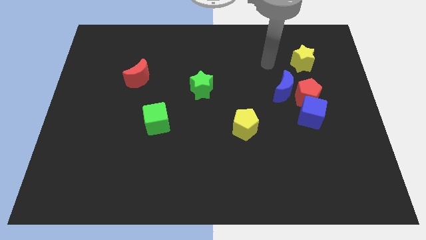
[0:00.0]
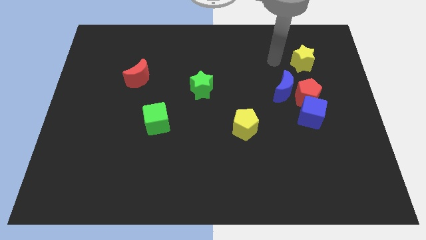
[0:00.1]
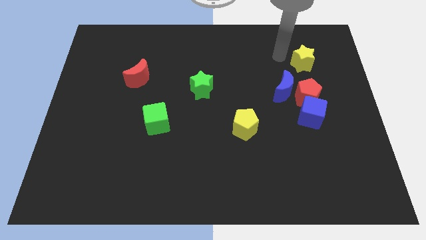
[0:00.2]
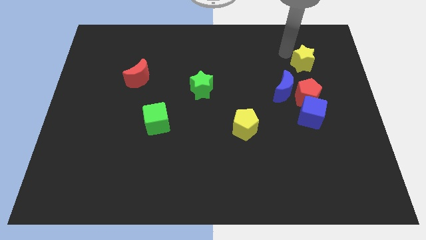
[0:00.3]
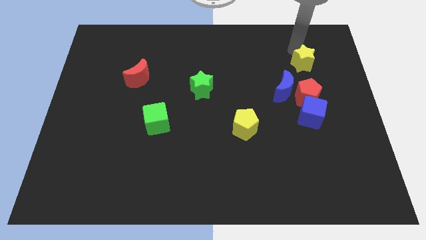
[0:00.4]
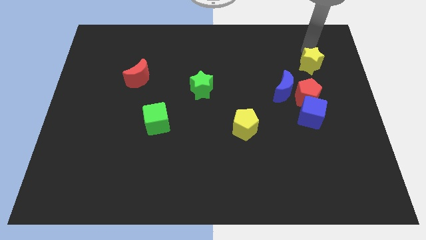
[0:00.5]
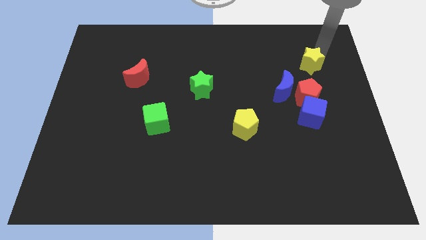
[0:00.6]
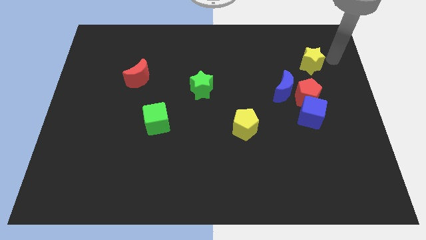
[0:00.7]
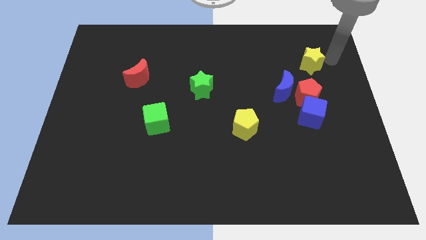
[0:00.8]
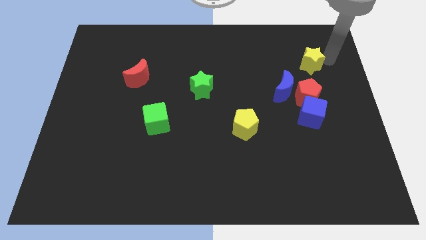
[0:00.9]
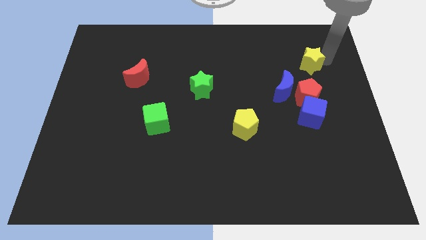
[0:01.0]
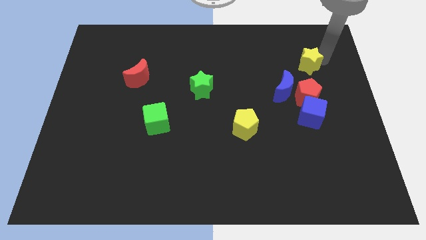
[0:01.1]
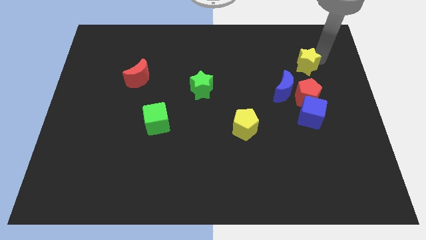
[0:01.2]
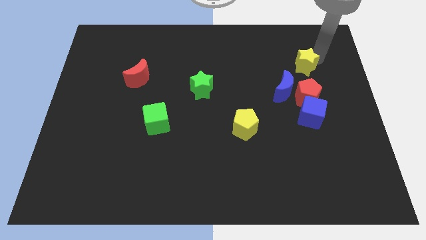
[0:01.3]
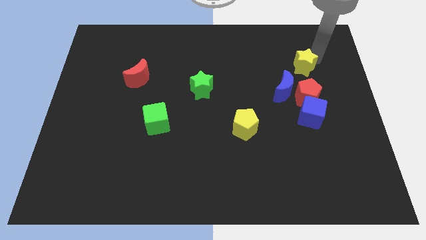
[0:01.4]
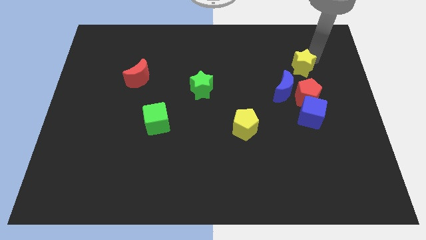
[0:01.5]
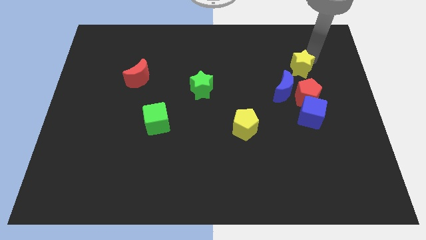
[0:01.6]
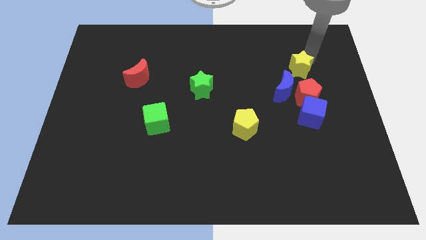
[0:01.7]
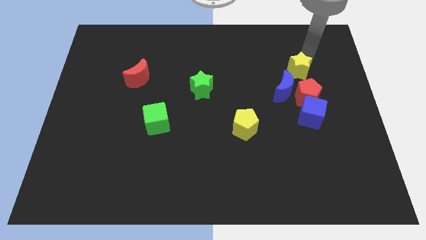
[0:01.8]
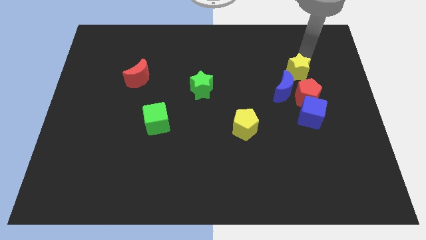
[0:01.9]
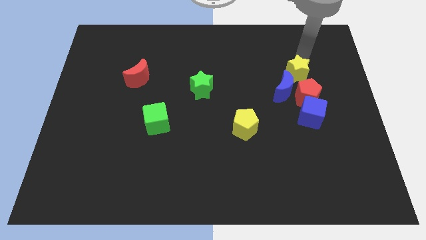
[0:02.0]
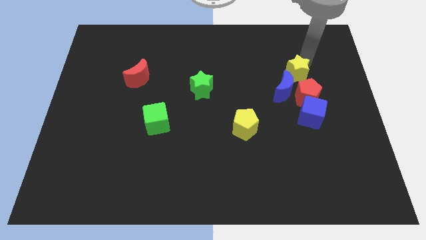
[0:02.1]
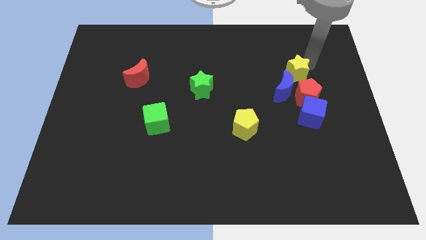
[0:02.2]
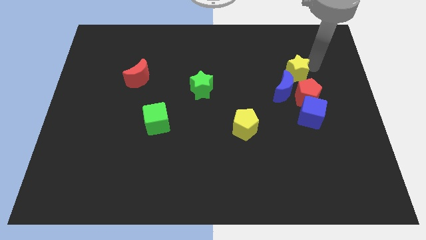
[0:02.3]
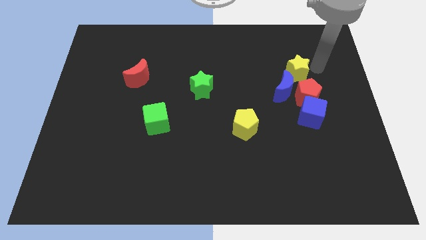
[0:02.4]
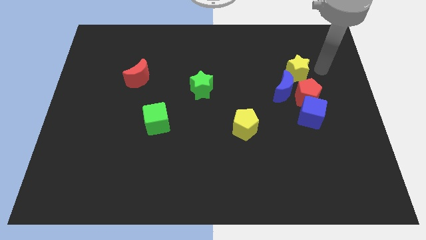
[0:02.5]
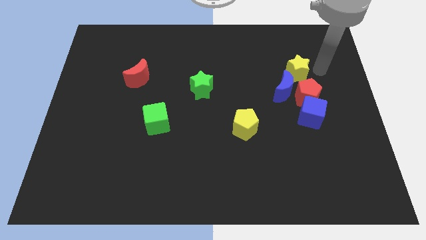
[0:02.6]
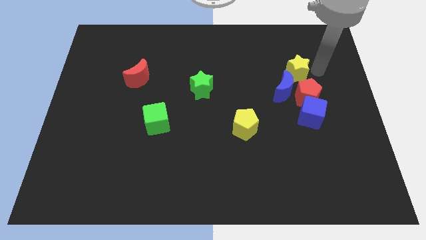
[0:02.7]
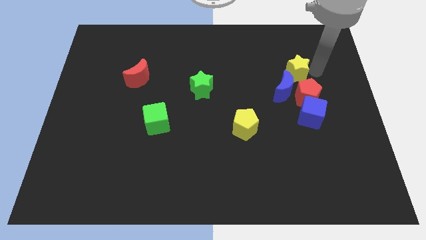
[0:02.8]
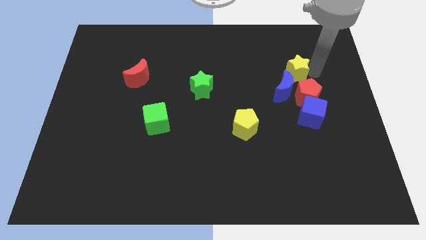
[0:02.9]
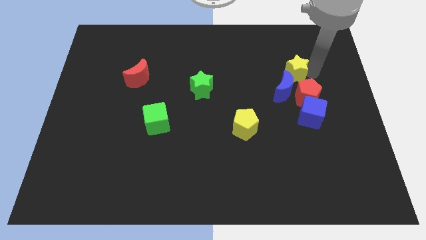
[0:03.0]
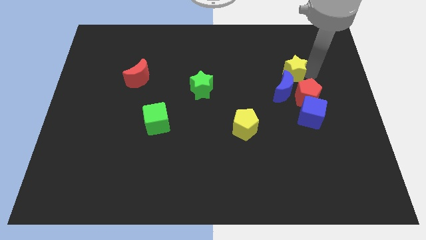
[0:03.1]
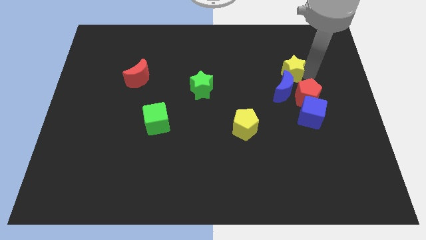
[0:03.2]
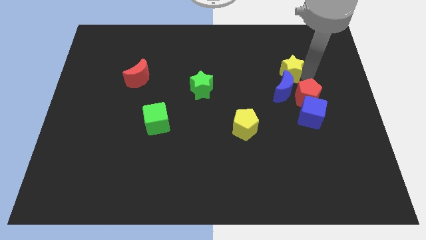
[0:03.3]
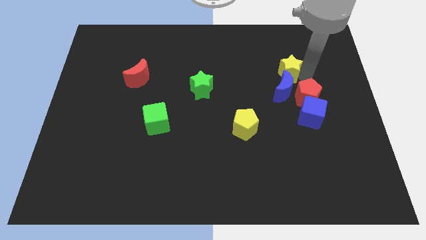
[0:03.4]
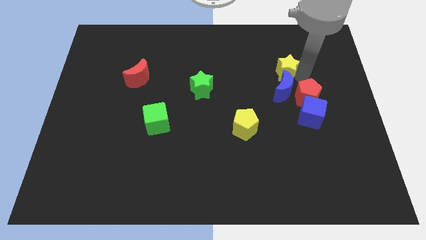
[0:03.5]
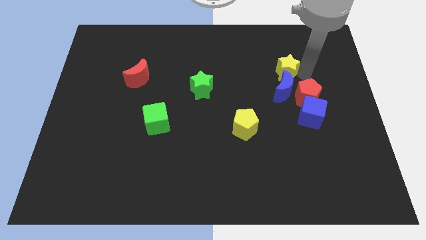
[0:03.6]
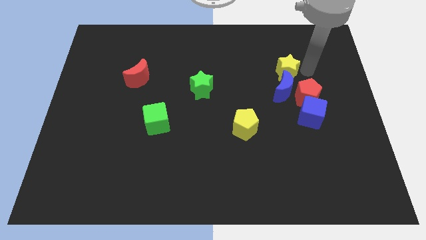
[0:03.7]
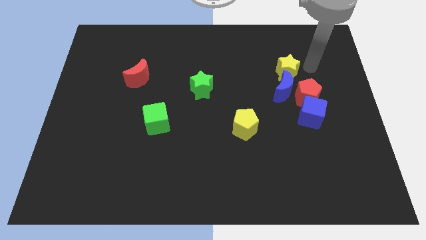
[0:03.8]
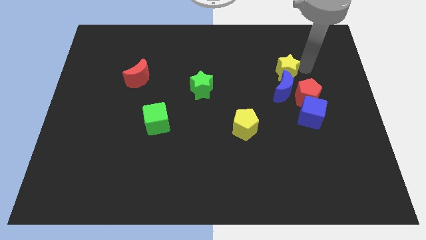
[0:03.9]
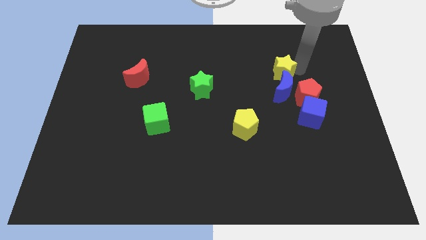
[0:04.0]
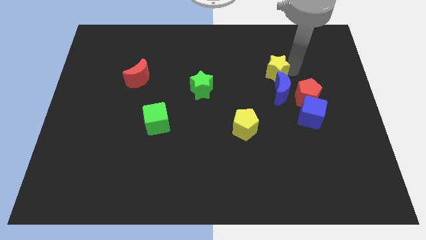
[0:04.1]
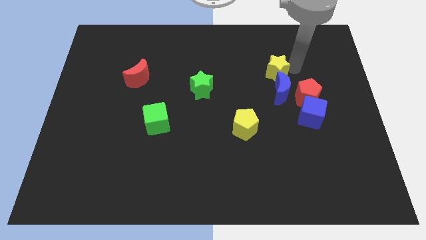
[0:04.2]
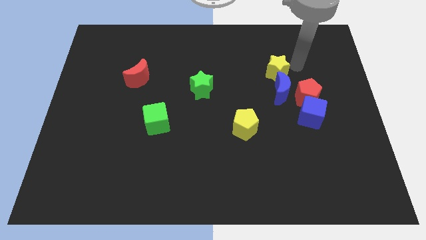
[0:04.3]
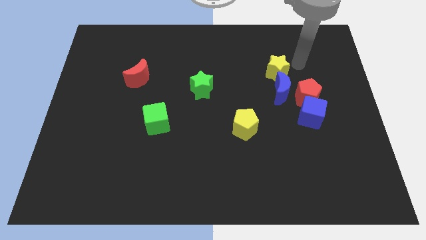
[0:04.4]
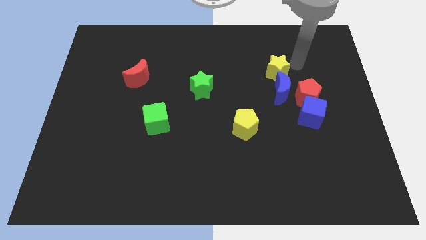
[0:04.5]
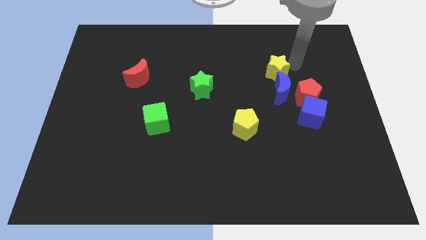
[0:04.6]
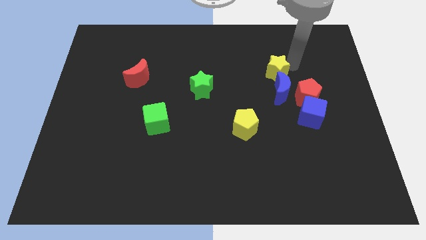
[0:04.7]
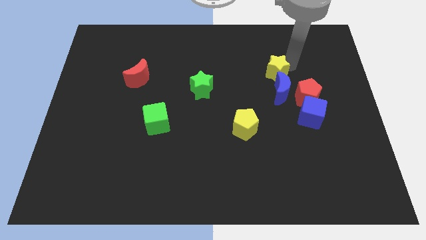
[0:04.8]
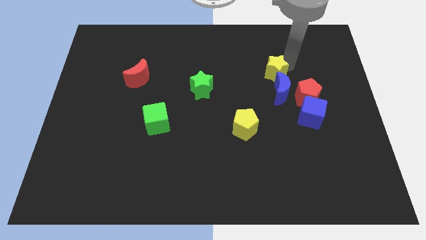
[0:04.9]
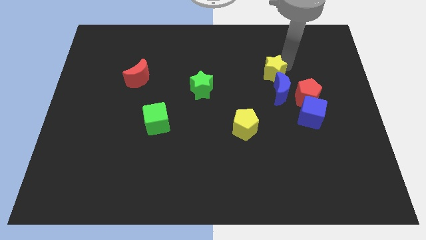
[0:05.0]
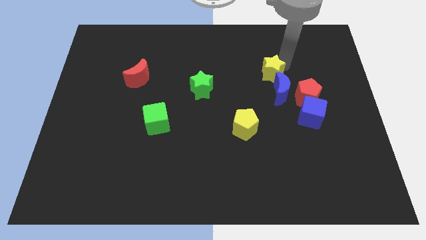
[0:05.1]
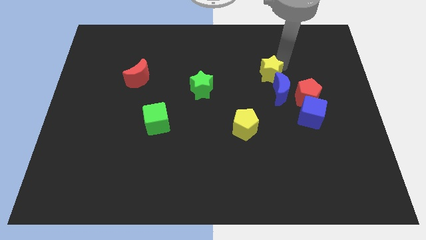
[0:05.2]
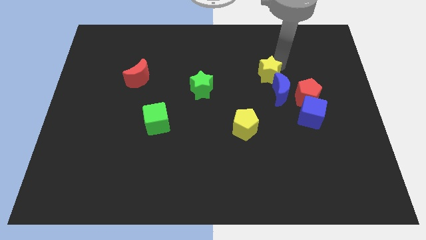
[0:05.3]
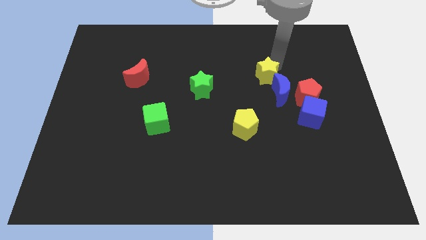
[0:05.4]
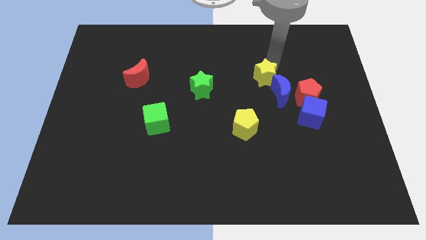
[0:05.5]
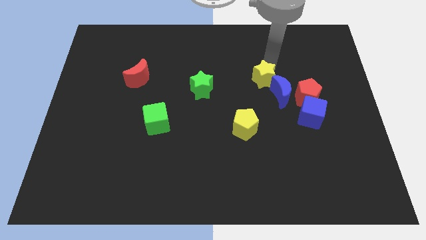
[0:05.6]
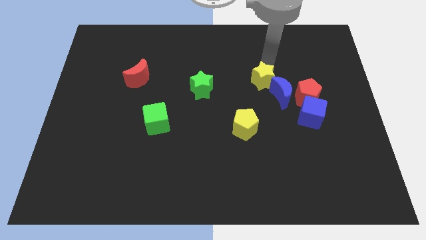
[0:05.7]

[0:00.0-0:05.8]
move the yellow star to the right side of the green star

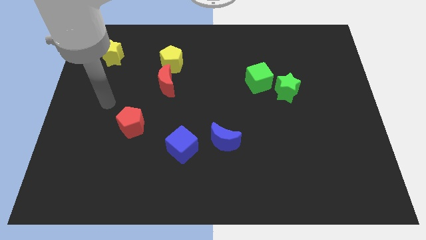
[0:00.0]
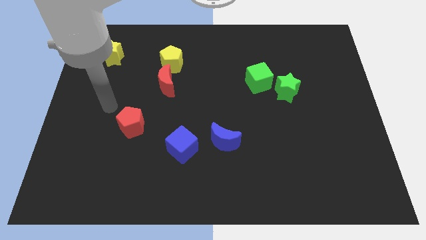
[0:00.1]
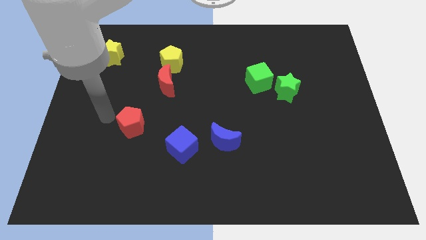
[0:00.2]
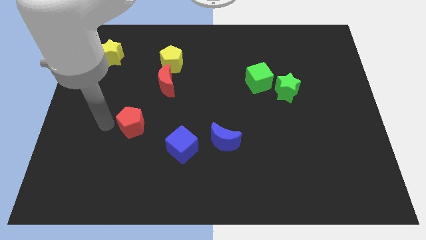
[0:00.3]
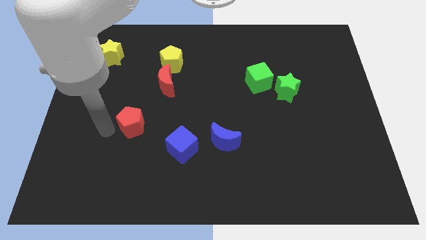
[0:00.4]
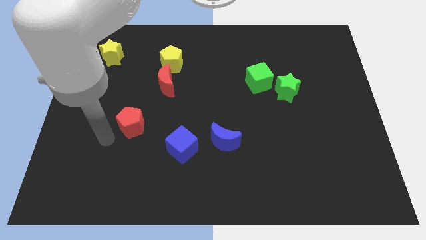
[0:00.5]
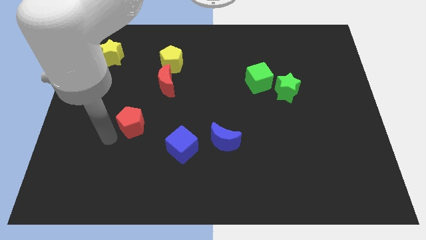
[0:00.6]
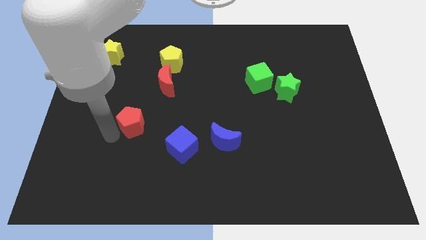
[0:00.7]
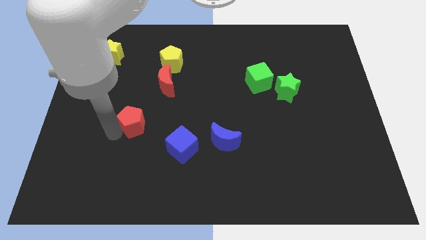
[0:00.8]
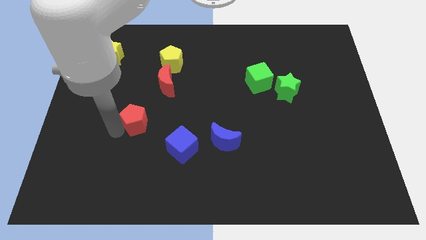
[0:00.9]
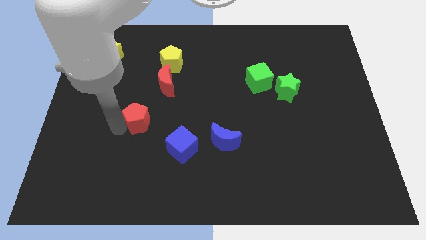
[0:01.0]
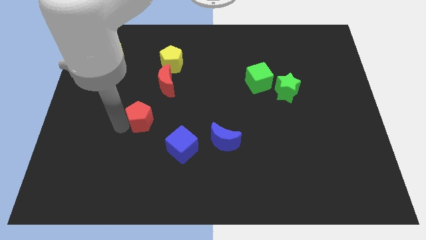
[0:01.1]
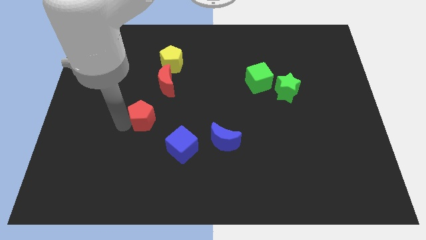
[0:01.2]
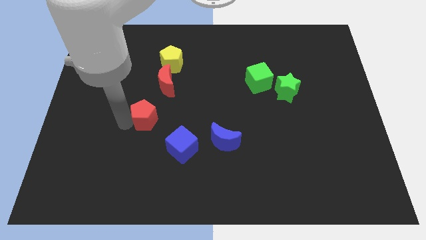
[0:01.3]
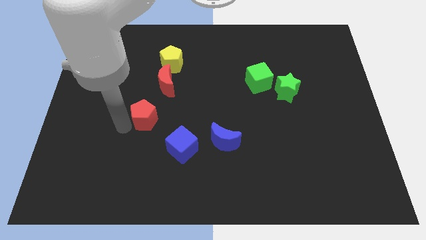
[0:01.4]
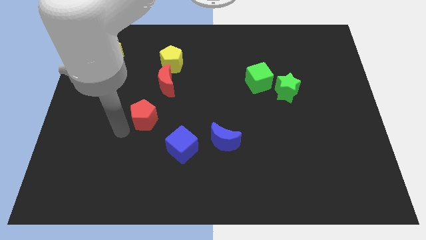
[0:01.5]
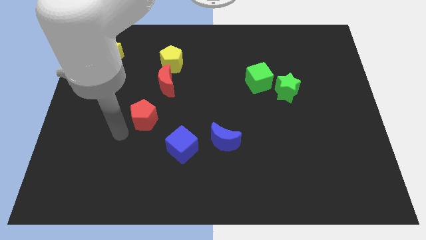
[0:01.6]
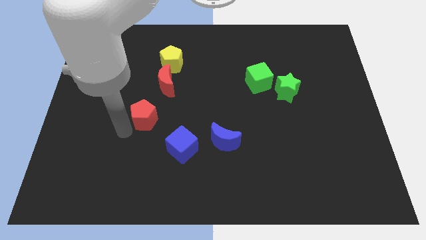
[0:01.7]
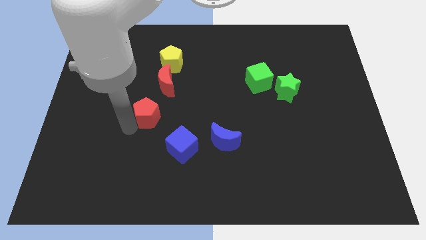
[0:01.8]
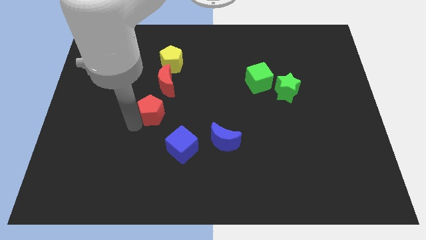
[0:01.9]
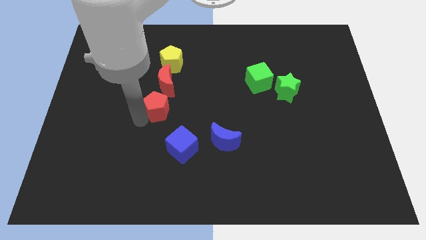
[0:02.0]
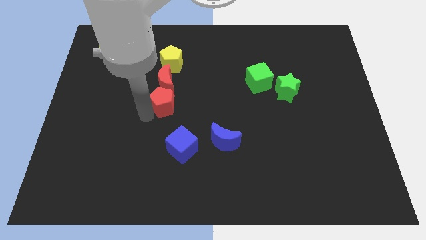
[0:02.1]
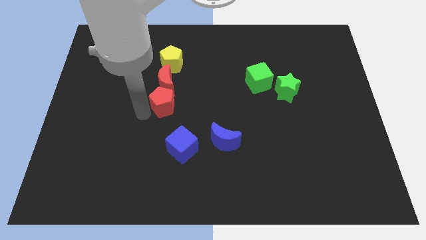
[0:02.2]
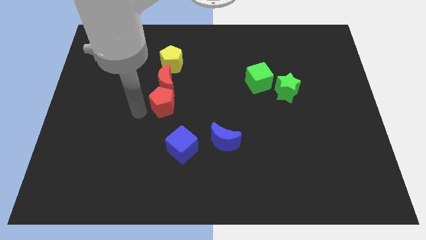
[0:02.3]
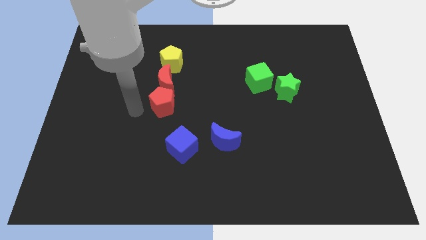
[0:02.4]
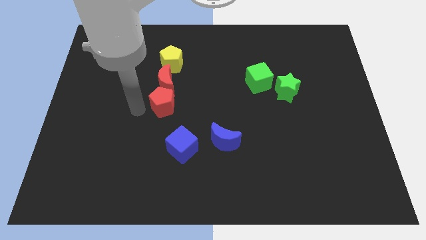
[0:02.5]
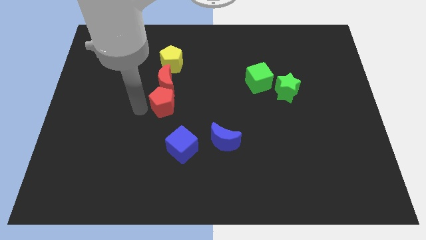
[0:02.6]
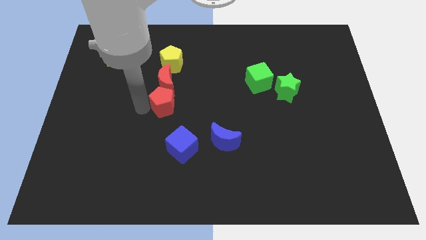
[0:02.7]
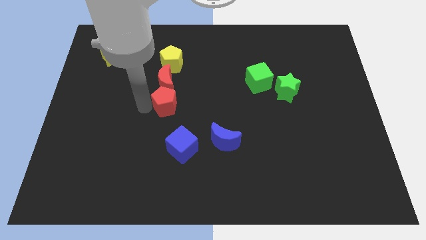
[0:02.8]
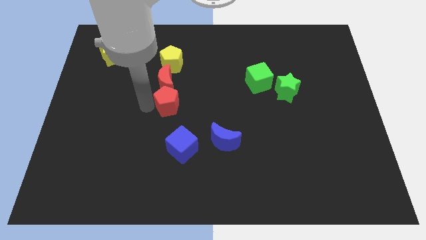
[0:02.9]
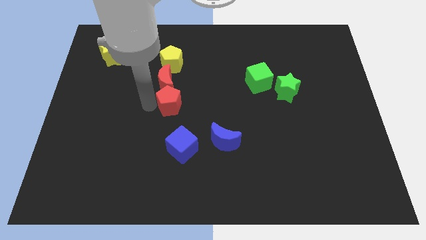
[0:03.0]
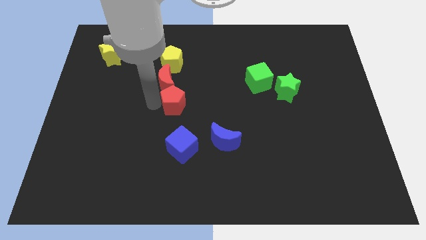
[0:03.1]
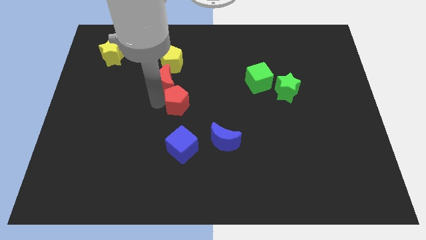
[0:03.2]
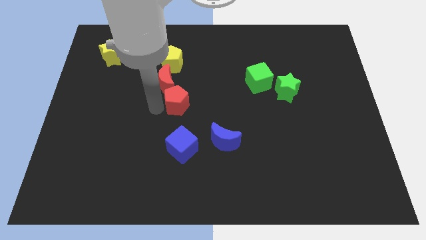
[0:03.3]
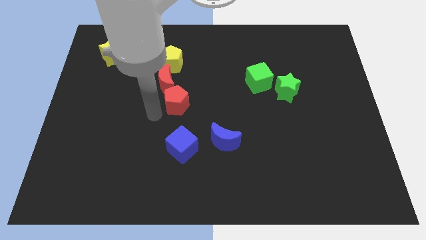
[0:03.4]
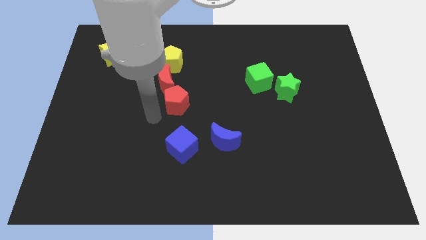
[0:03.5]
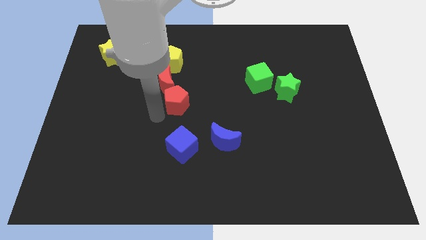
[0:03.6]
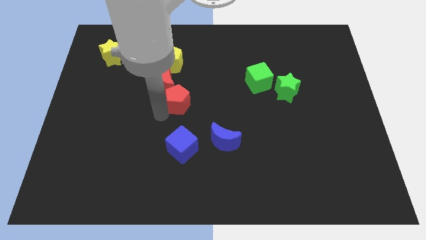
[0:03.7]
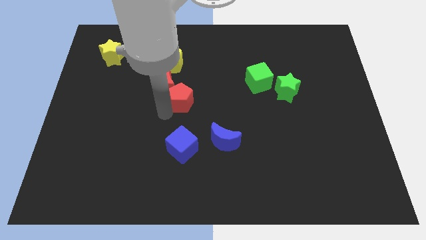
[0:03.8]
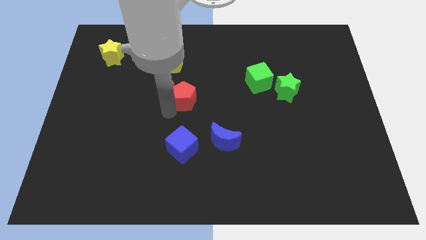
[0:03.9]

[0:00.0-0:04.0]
slide the red pentagon right of the red moon
